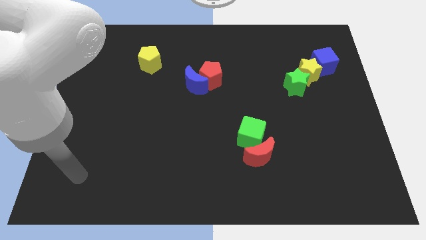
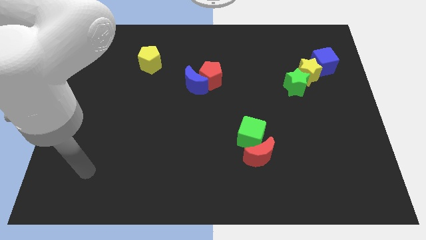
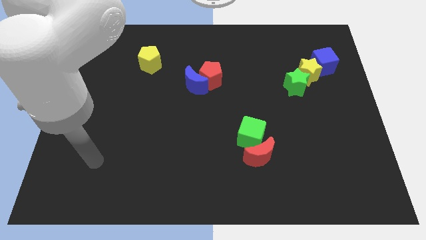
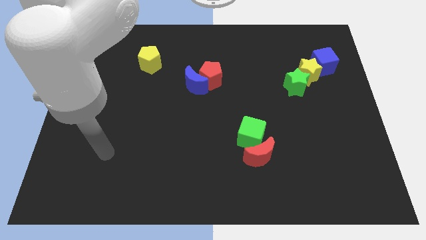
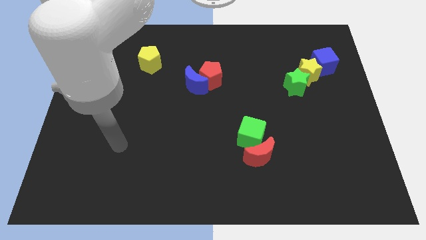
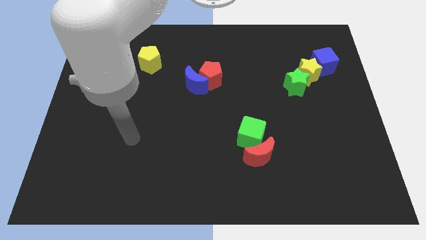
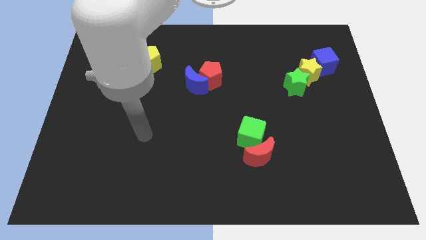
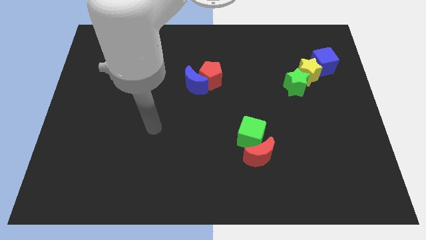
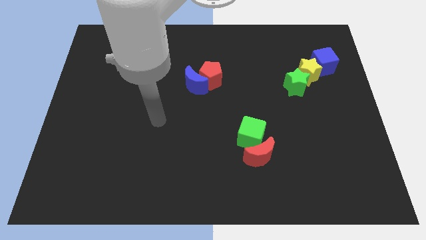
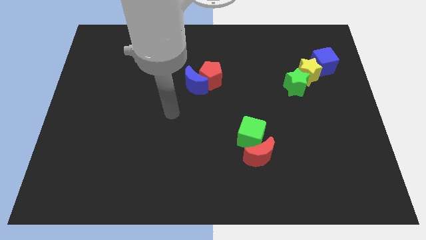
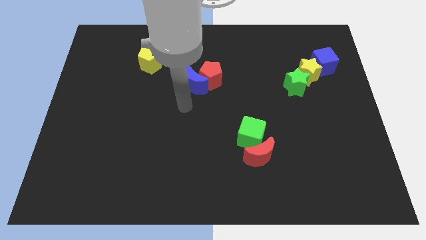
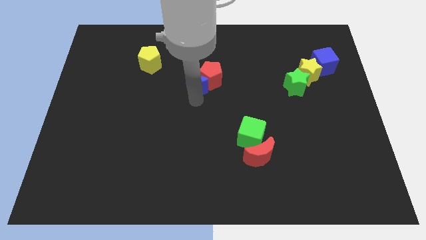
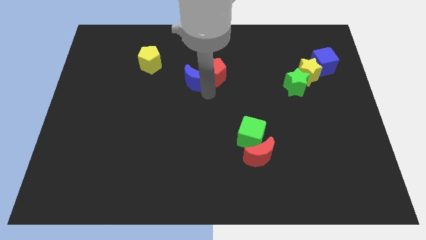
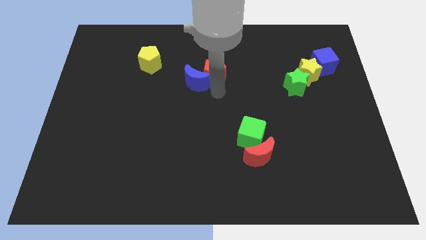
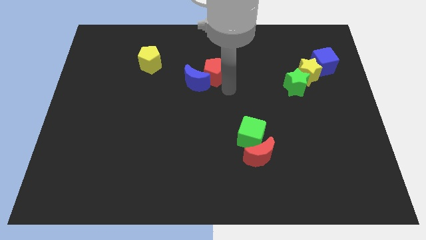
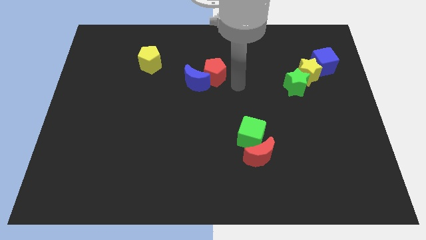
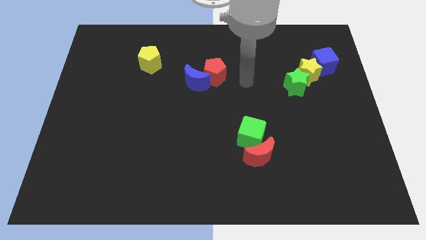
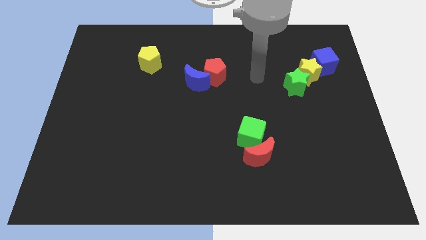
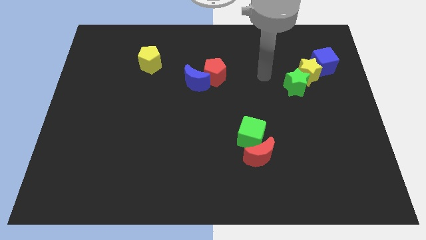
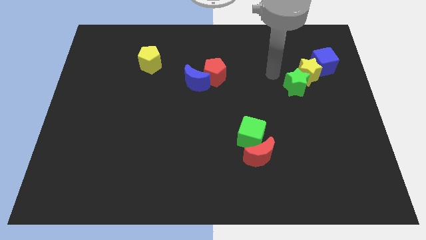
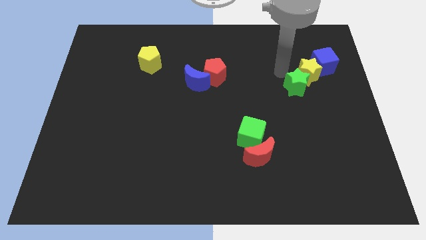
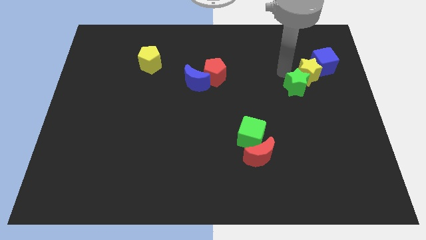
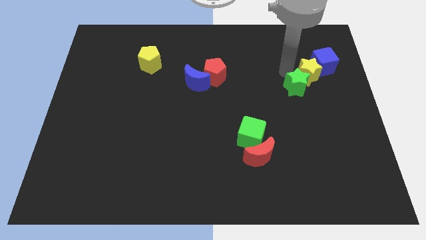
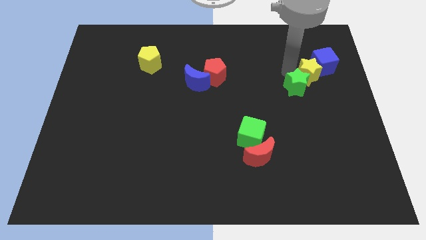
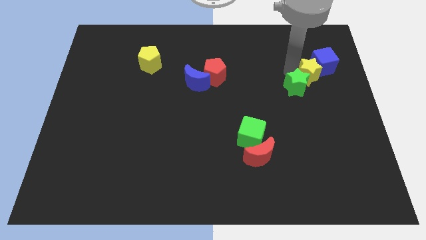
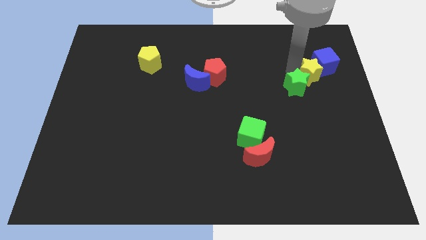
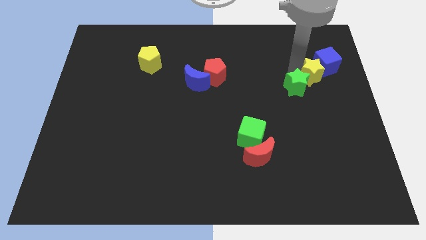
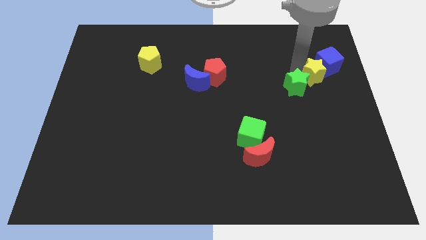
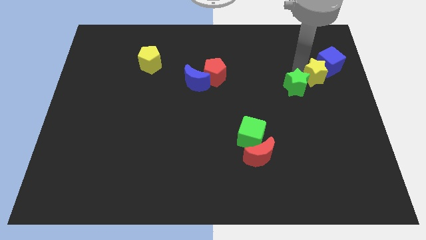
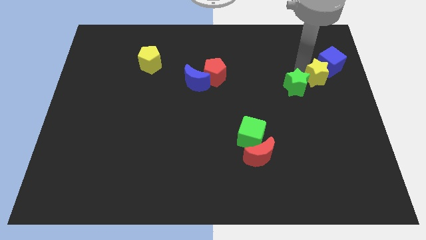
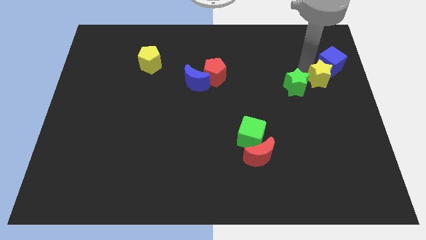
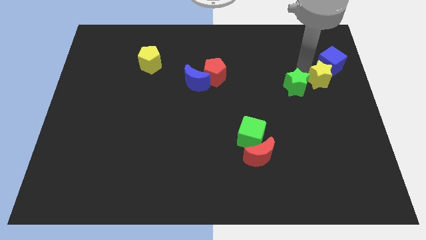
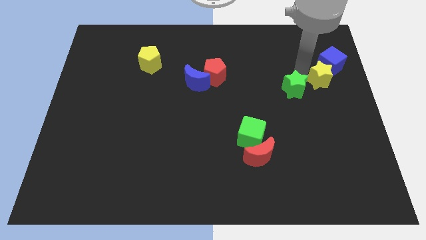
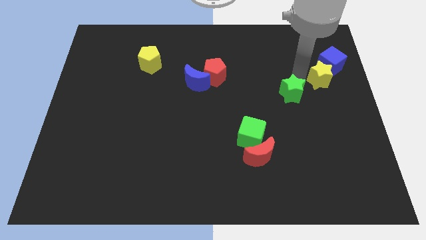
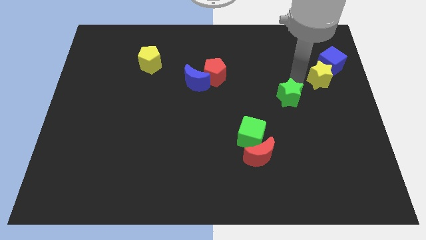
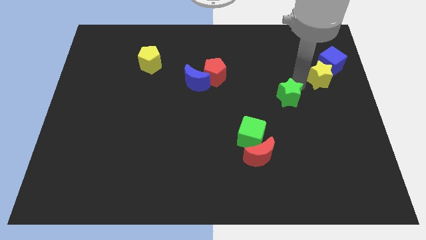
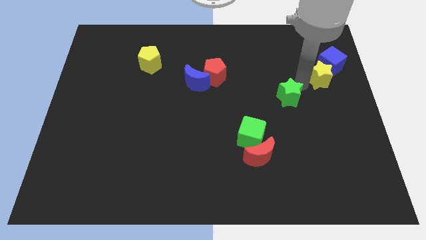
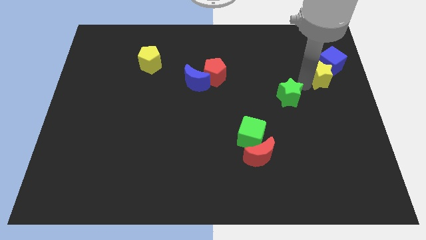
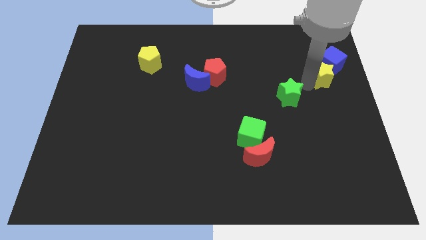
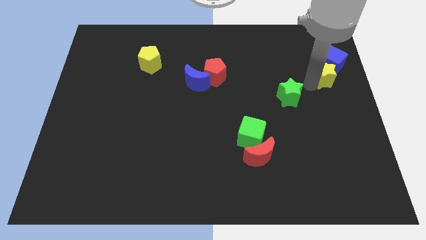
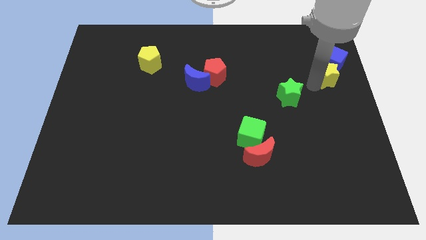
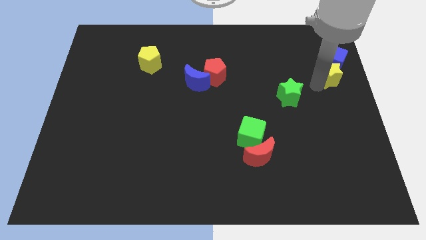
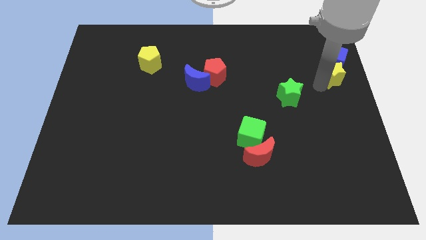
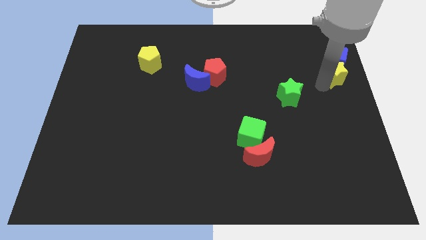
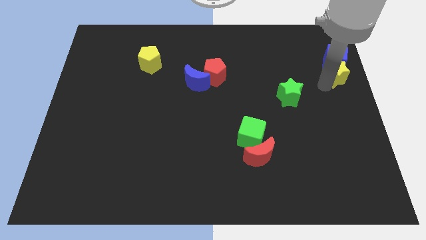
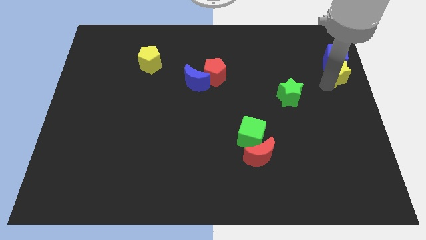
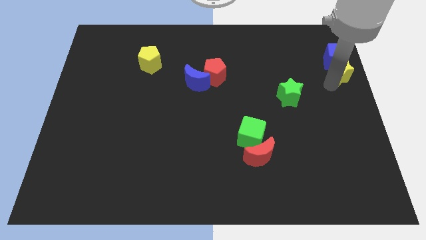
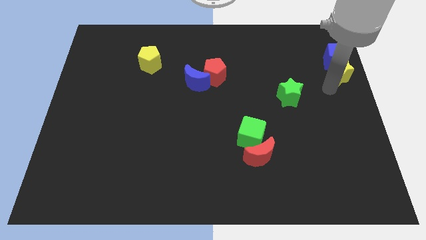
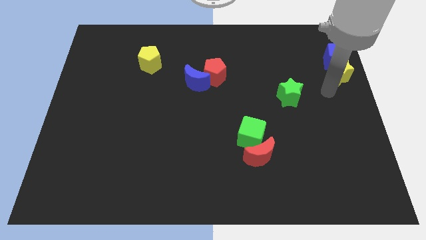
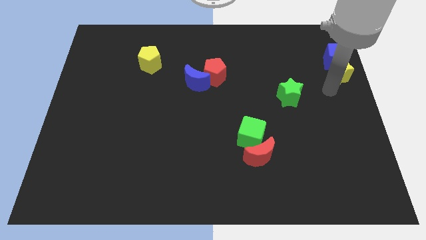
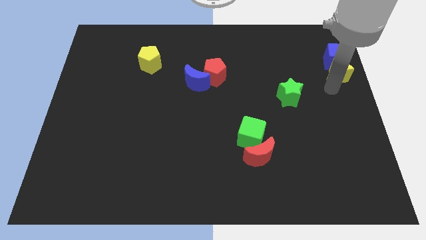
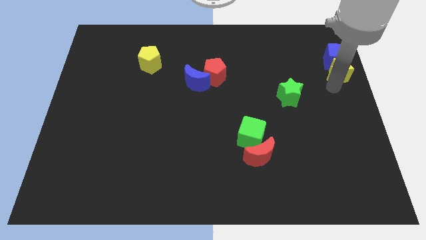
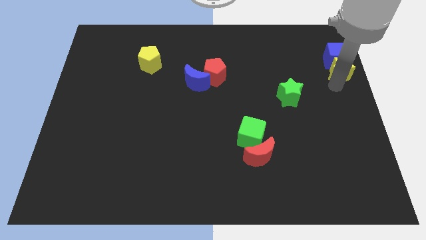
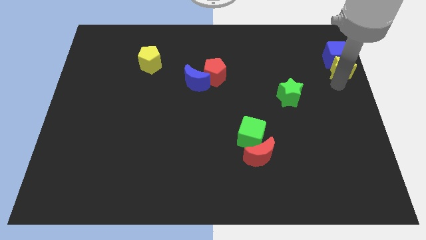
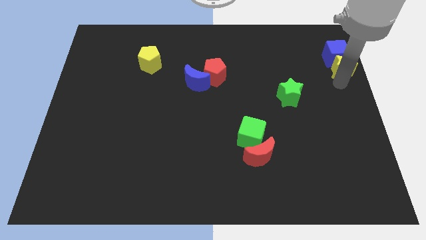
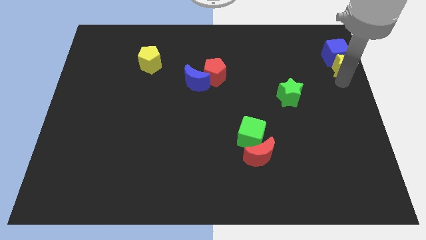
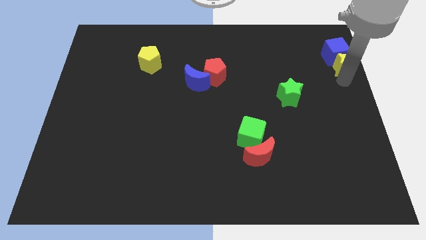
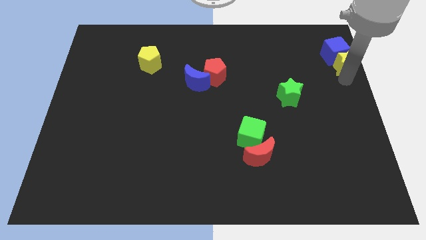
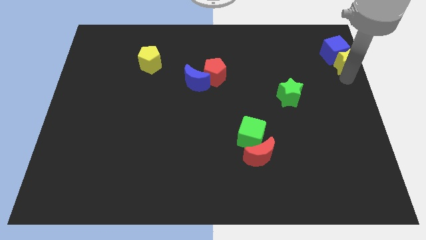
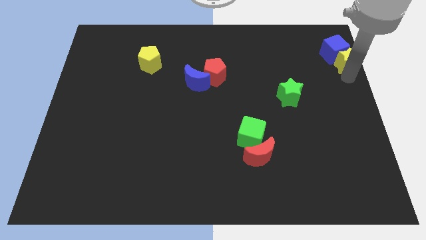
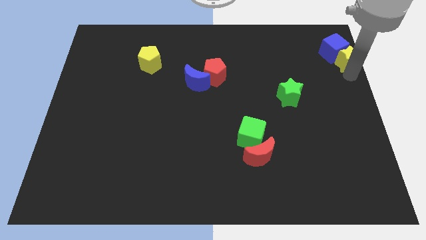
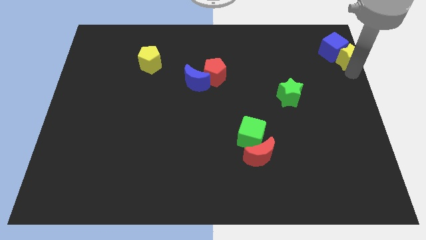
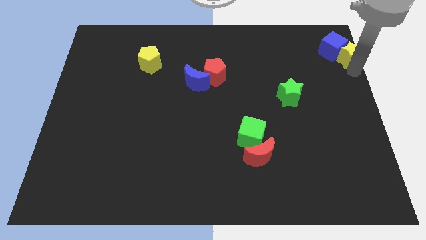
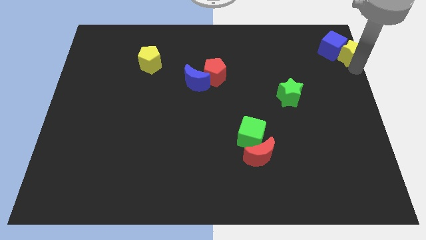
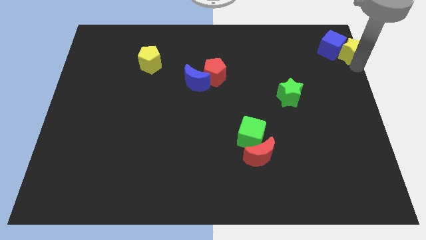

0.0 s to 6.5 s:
slide the yellow star to the top right corner

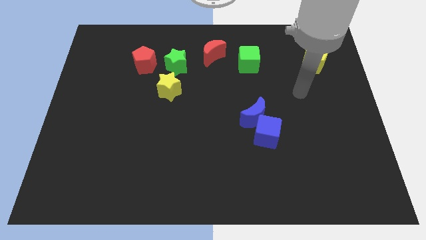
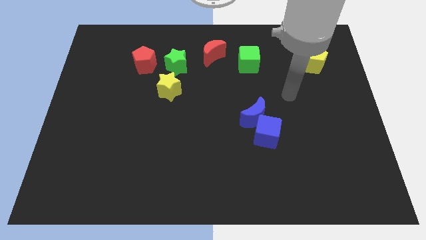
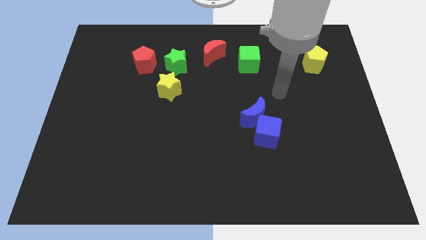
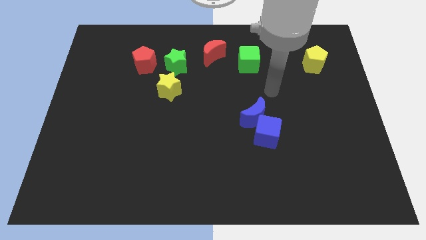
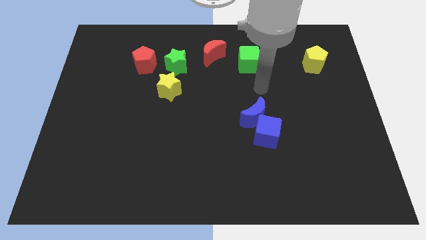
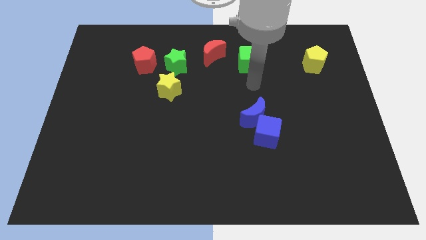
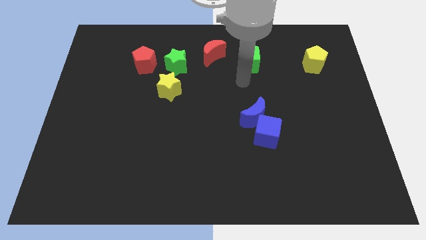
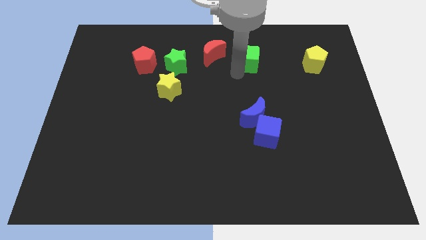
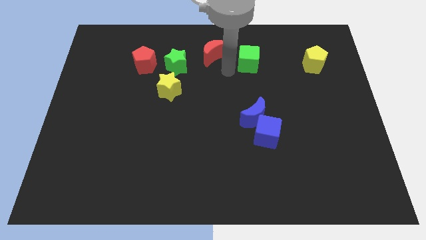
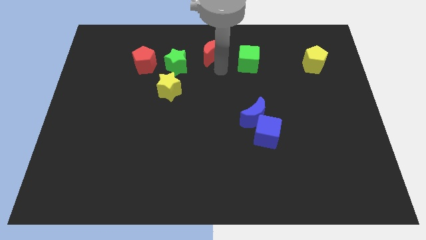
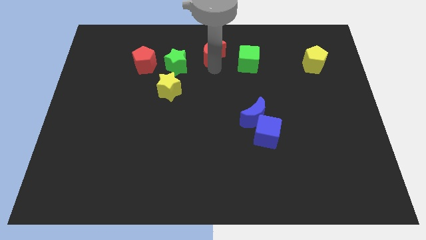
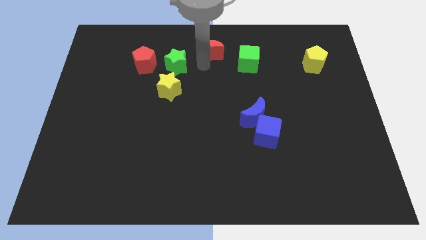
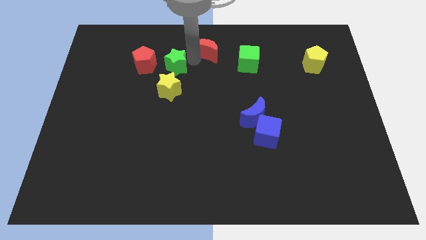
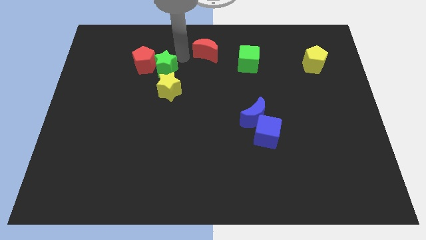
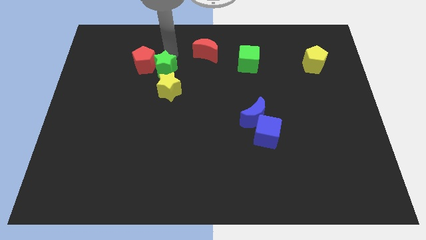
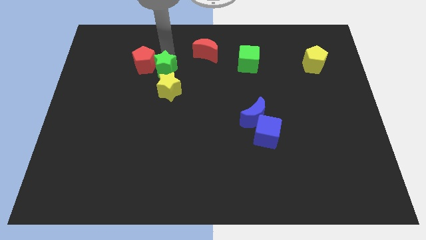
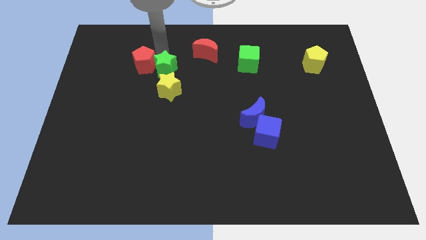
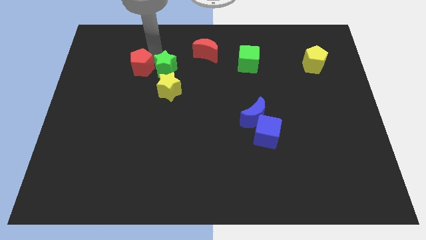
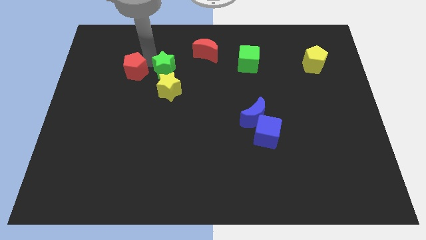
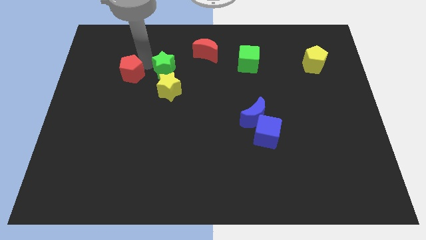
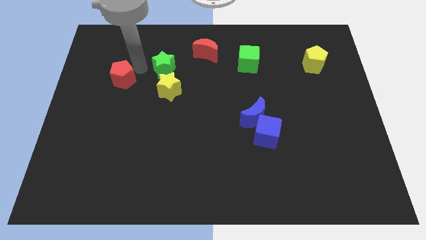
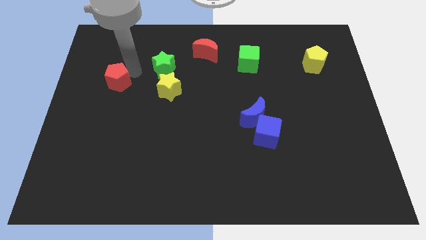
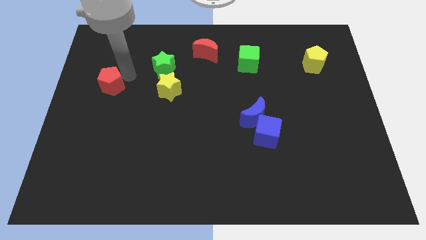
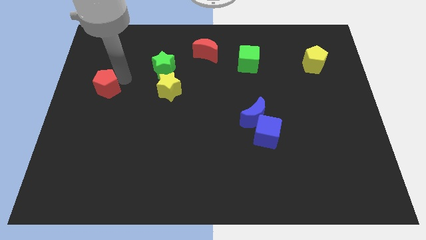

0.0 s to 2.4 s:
put the red pentagon to the left side of the board
